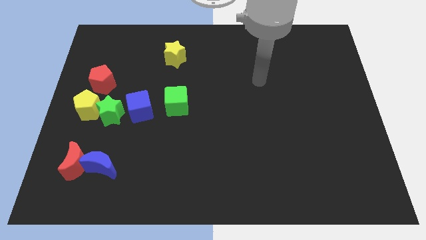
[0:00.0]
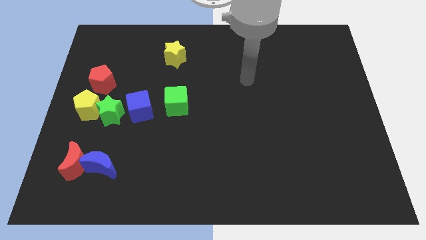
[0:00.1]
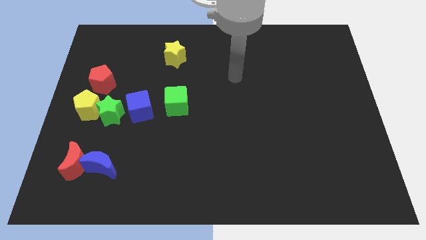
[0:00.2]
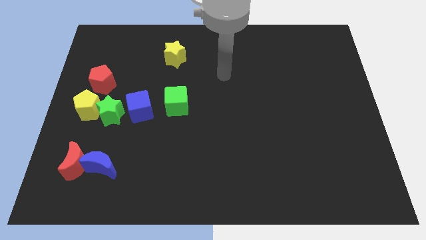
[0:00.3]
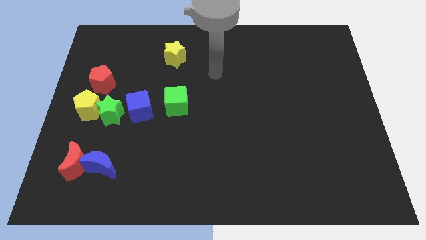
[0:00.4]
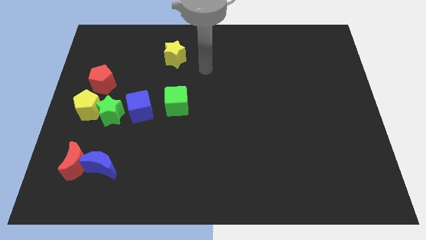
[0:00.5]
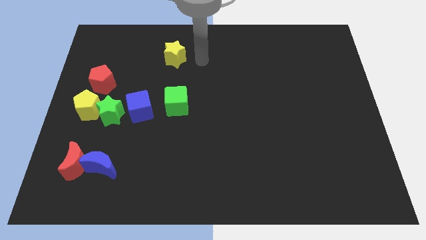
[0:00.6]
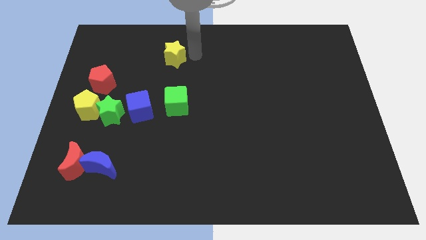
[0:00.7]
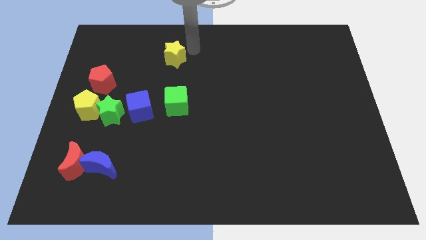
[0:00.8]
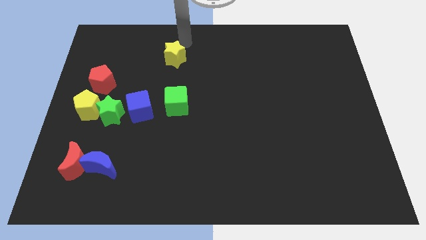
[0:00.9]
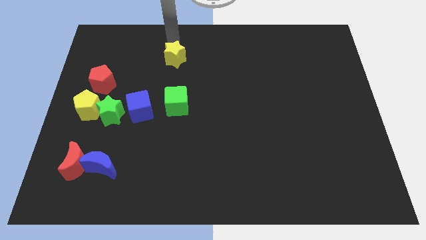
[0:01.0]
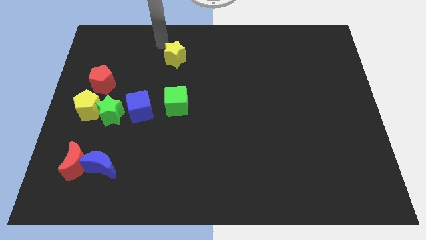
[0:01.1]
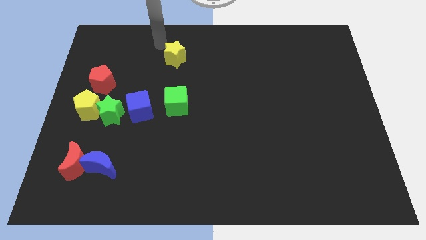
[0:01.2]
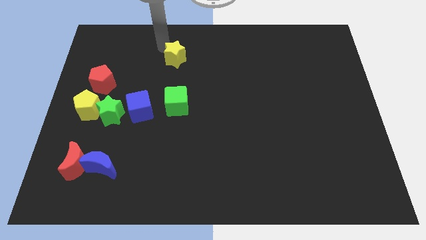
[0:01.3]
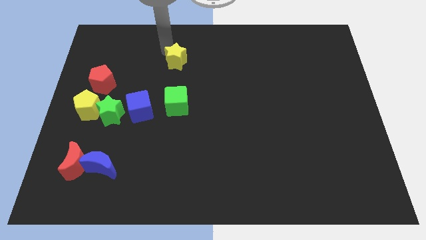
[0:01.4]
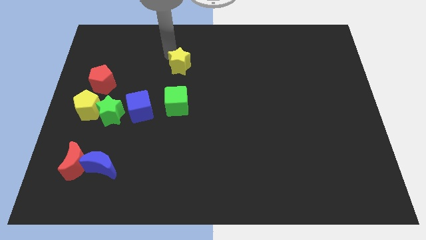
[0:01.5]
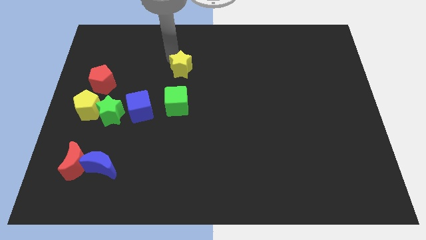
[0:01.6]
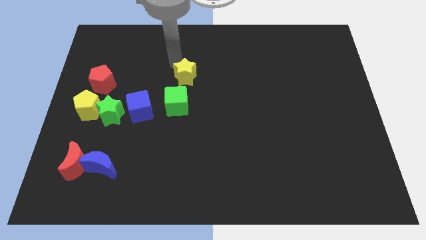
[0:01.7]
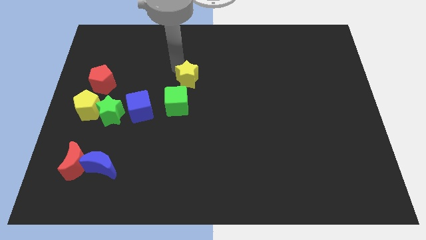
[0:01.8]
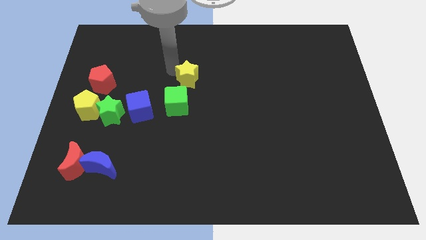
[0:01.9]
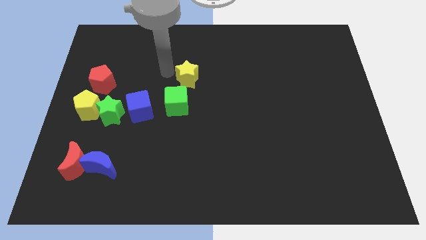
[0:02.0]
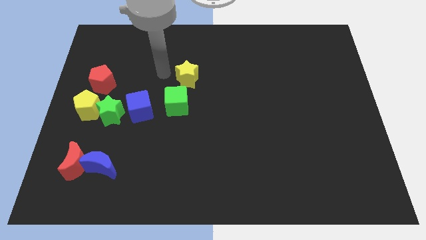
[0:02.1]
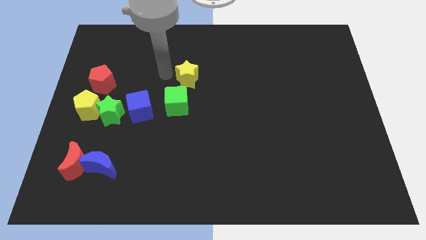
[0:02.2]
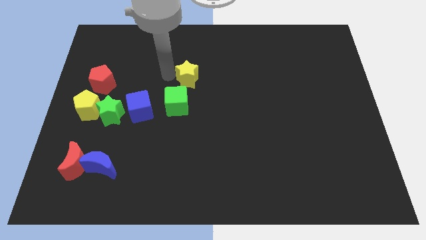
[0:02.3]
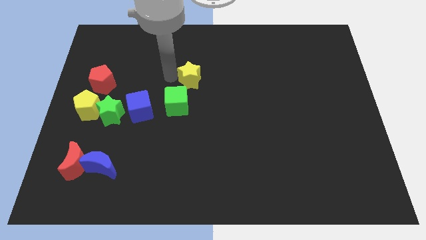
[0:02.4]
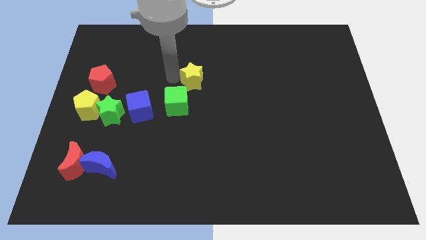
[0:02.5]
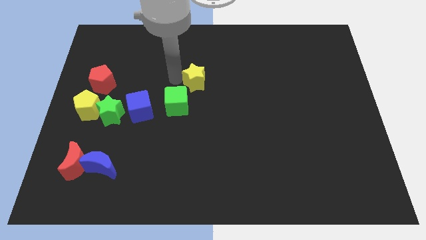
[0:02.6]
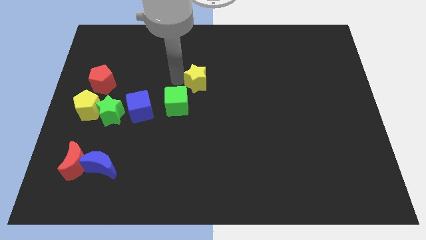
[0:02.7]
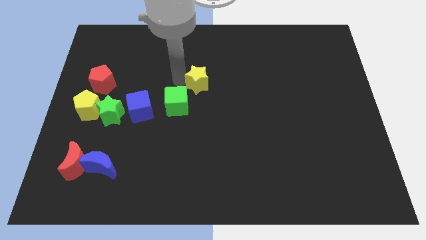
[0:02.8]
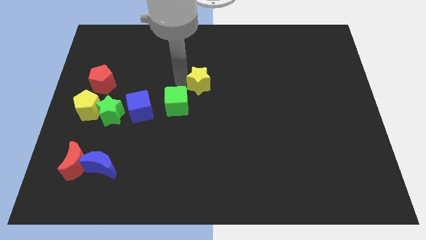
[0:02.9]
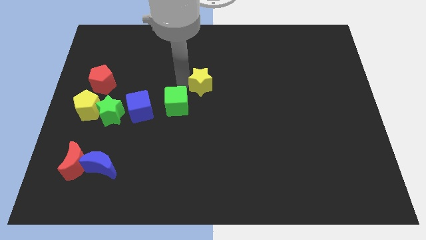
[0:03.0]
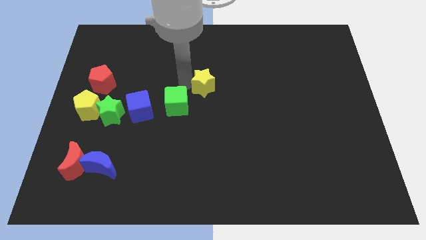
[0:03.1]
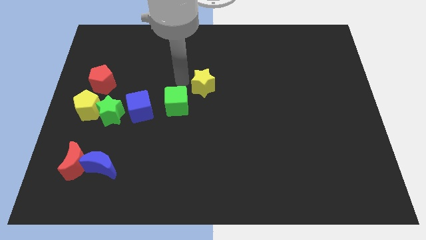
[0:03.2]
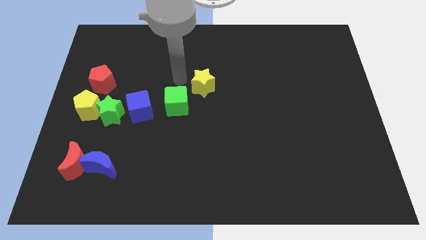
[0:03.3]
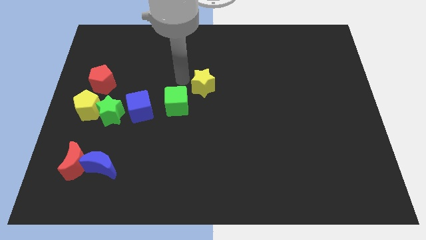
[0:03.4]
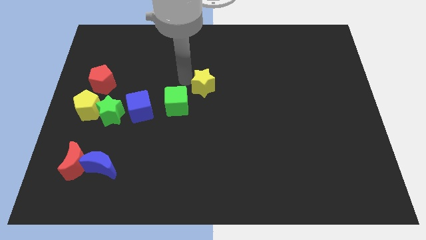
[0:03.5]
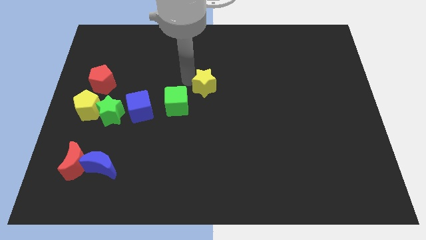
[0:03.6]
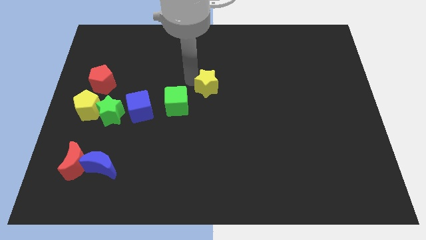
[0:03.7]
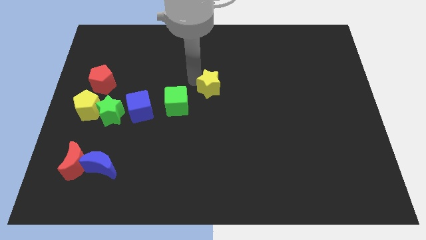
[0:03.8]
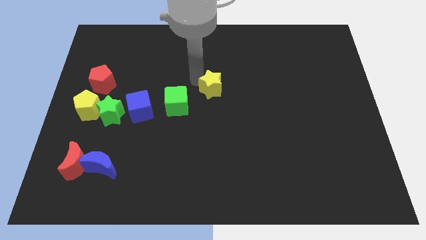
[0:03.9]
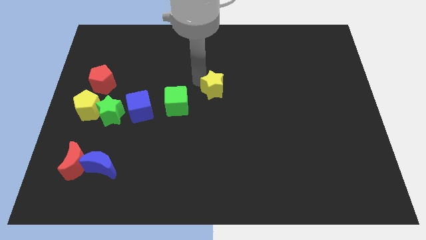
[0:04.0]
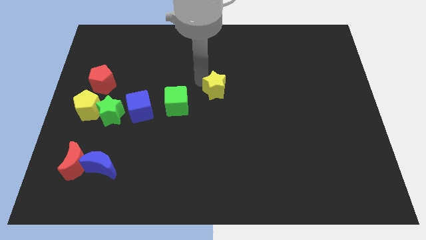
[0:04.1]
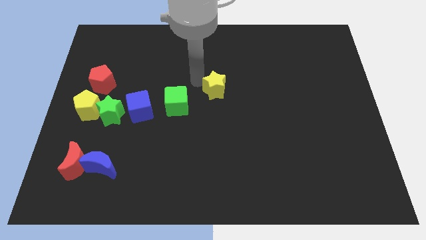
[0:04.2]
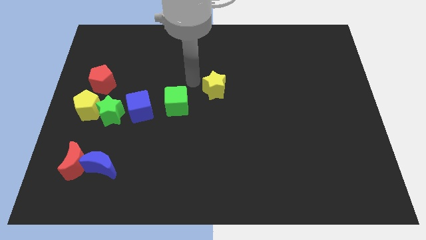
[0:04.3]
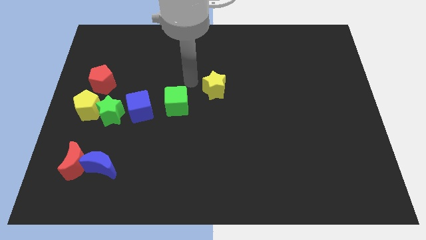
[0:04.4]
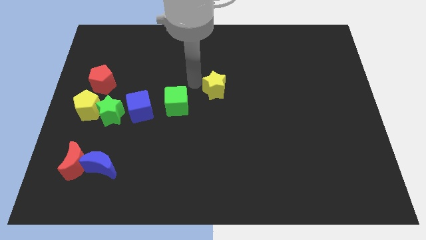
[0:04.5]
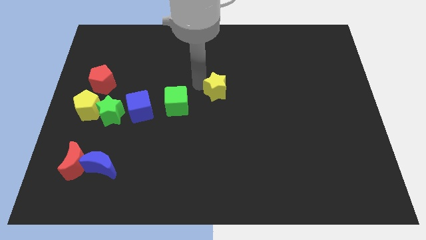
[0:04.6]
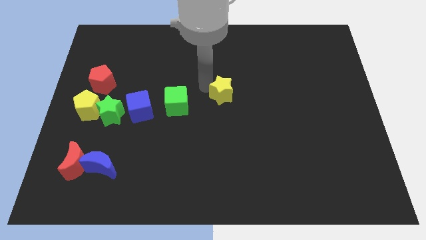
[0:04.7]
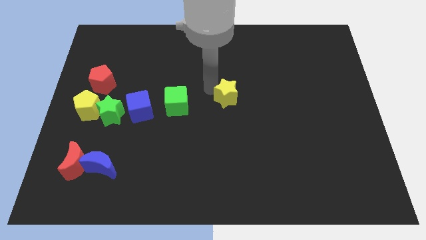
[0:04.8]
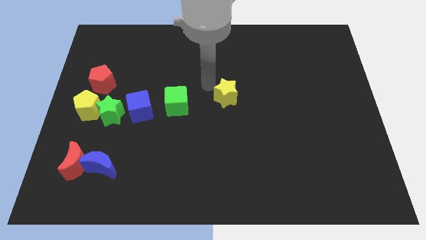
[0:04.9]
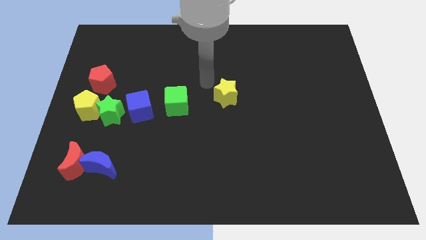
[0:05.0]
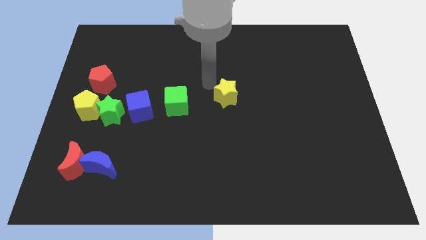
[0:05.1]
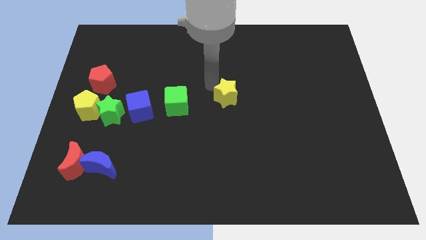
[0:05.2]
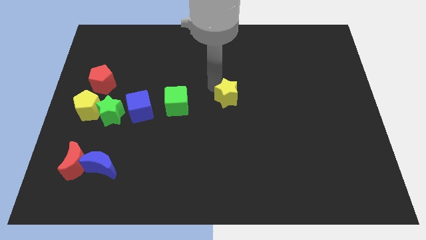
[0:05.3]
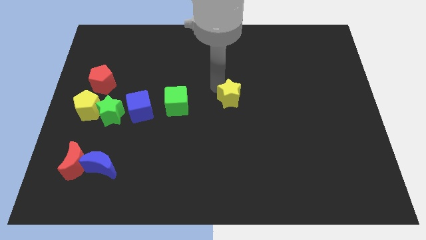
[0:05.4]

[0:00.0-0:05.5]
push the yellow star down and then to the right

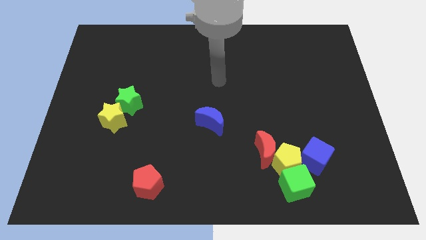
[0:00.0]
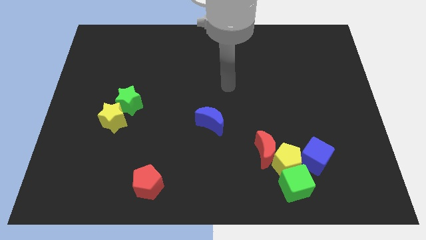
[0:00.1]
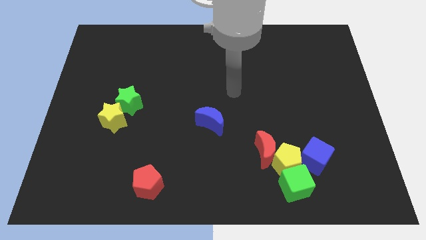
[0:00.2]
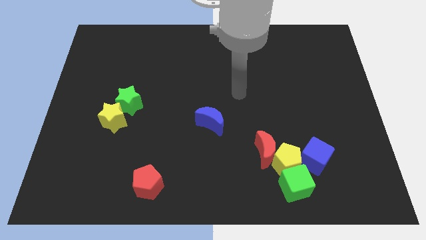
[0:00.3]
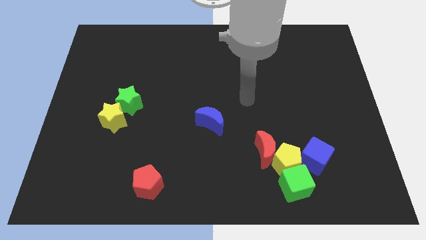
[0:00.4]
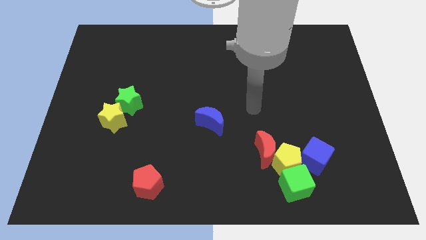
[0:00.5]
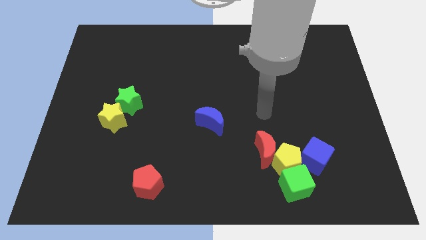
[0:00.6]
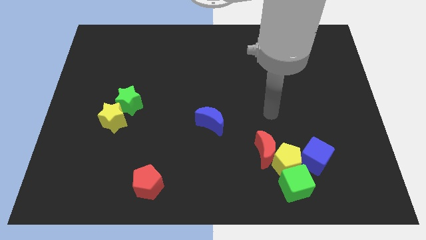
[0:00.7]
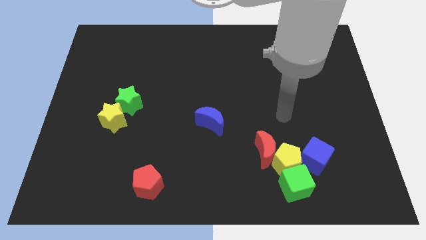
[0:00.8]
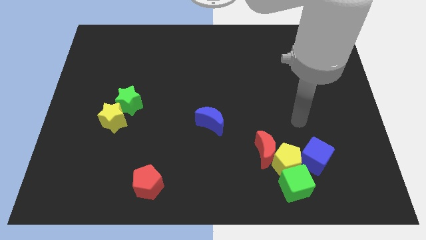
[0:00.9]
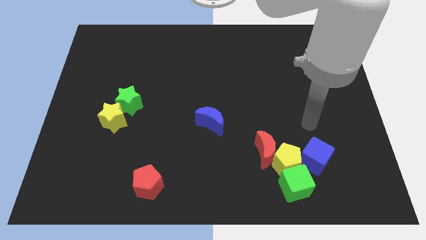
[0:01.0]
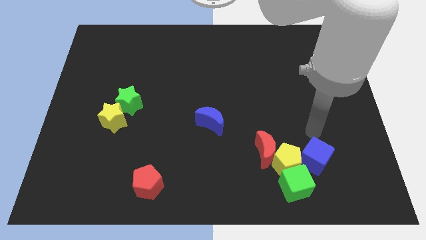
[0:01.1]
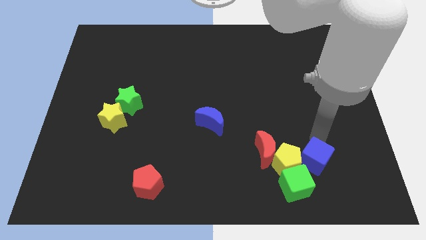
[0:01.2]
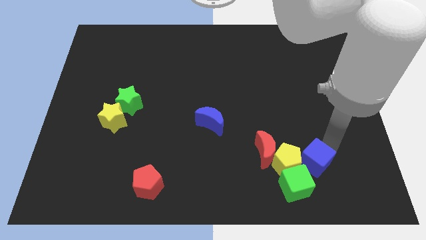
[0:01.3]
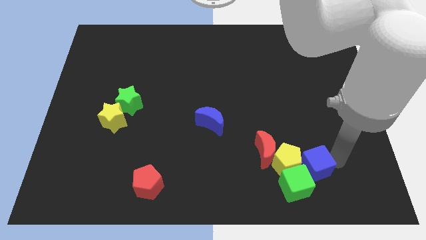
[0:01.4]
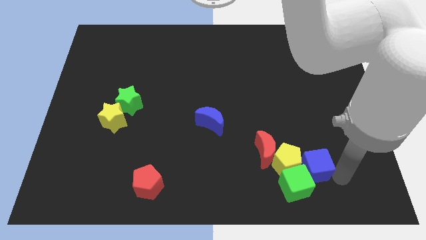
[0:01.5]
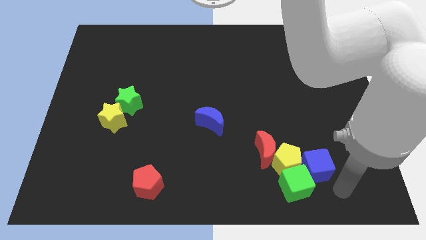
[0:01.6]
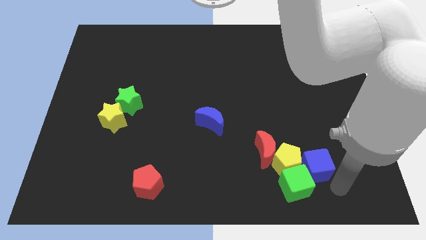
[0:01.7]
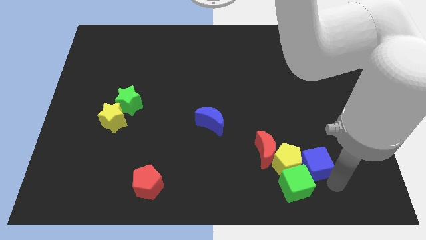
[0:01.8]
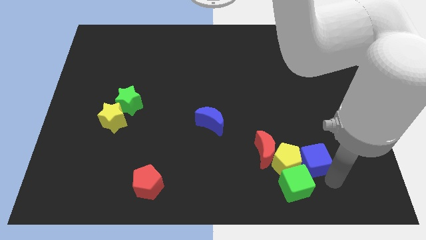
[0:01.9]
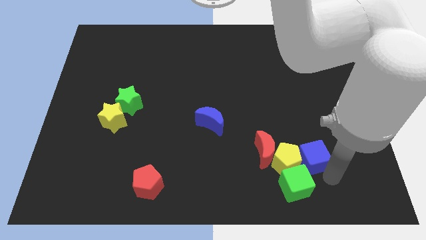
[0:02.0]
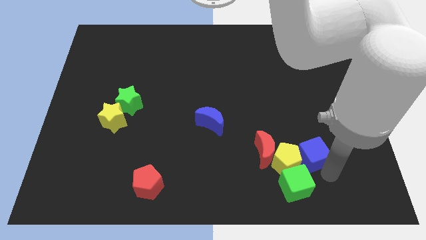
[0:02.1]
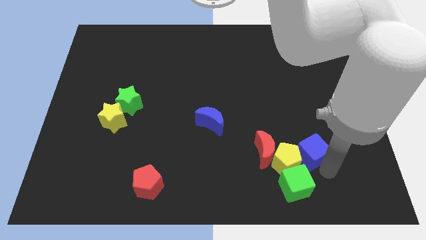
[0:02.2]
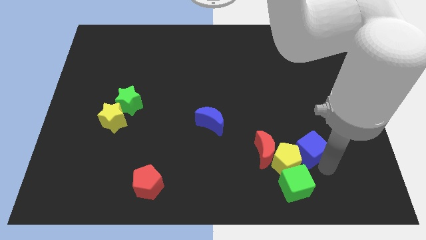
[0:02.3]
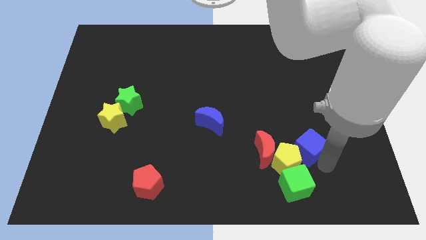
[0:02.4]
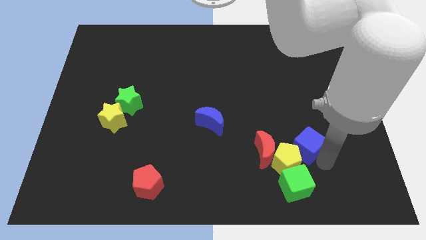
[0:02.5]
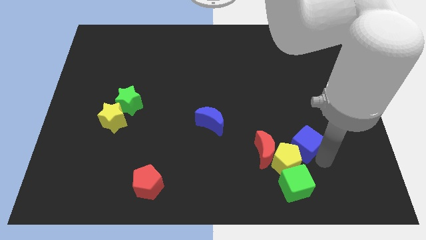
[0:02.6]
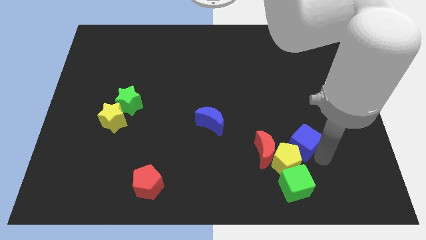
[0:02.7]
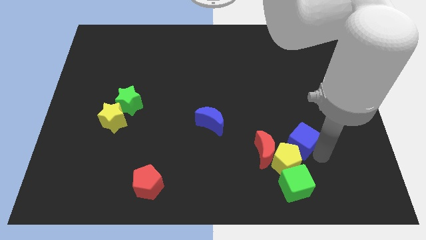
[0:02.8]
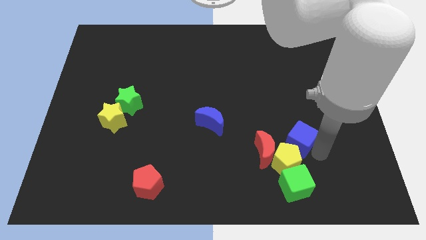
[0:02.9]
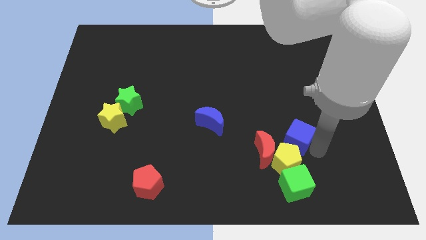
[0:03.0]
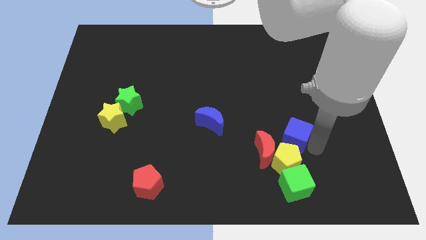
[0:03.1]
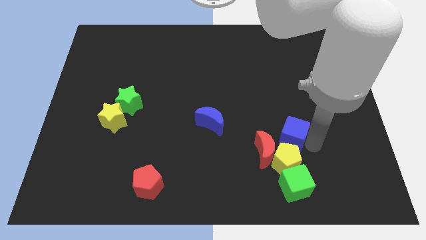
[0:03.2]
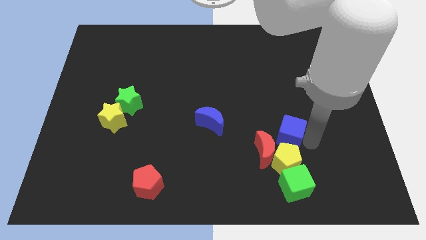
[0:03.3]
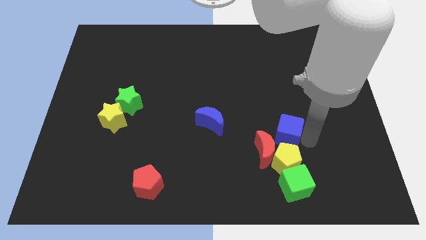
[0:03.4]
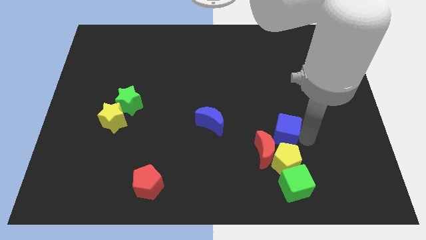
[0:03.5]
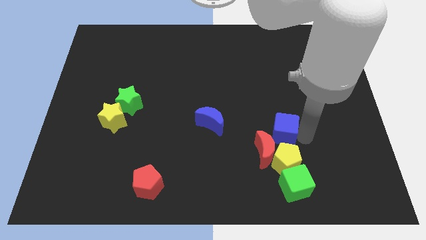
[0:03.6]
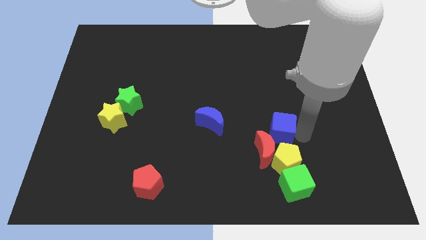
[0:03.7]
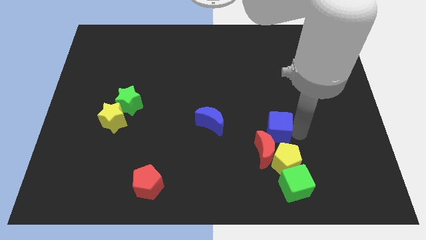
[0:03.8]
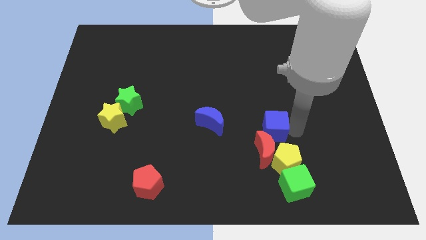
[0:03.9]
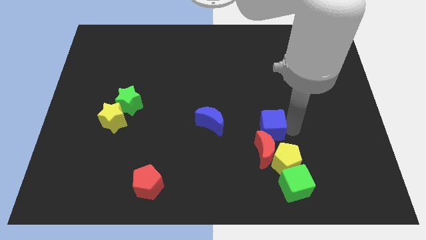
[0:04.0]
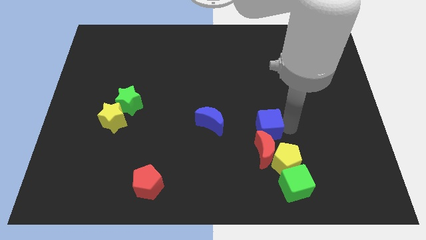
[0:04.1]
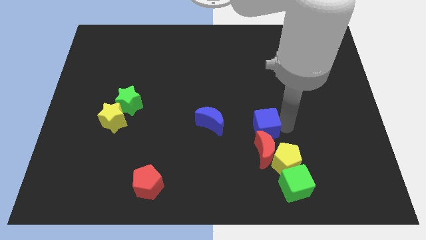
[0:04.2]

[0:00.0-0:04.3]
move the blue cube left somewhat
